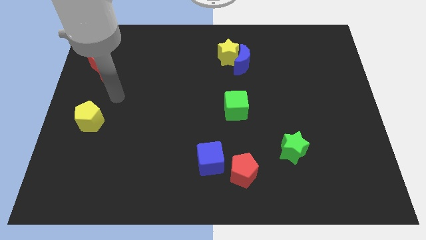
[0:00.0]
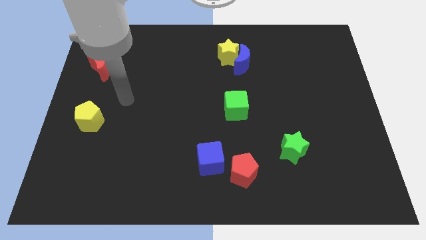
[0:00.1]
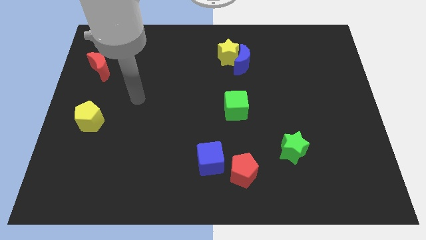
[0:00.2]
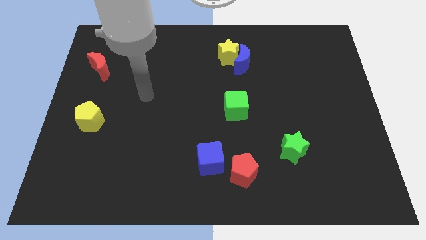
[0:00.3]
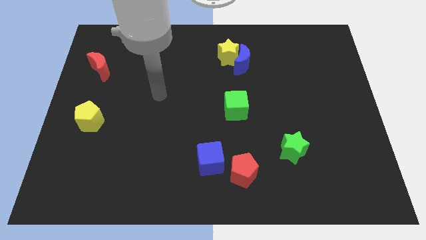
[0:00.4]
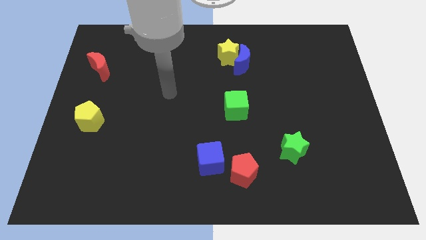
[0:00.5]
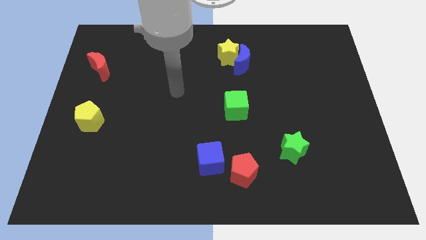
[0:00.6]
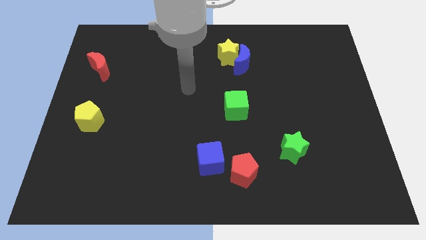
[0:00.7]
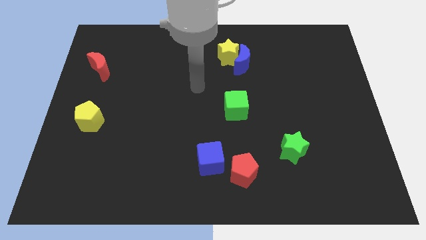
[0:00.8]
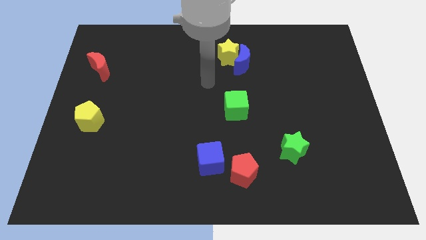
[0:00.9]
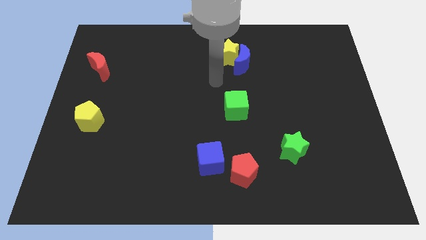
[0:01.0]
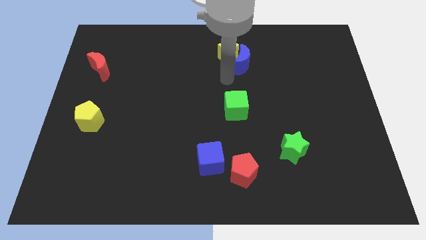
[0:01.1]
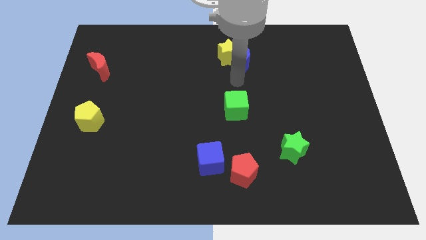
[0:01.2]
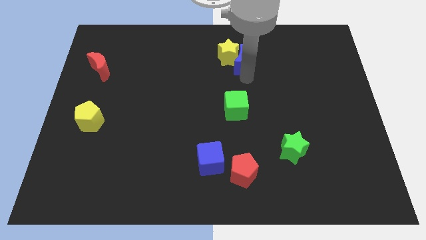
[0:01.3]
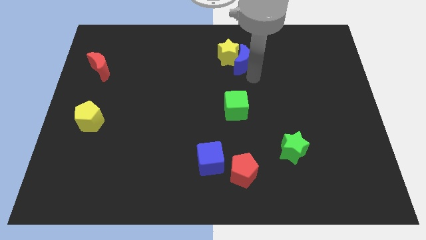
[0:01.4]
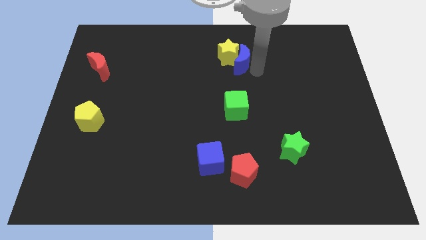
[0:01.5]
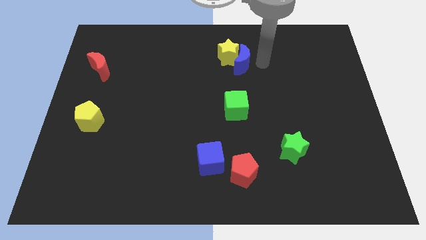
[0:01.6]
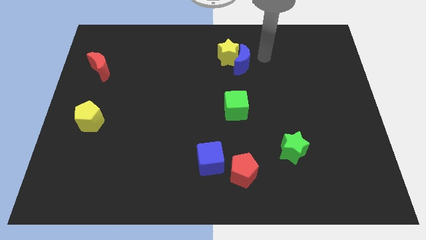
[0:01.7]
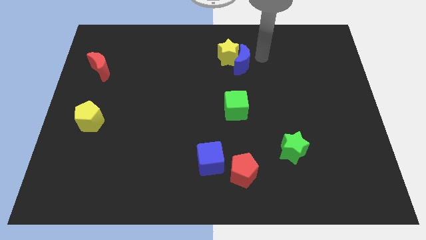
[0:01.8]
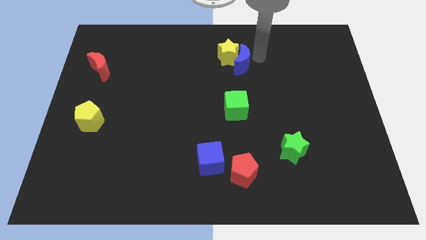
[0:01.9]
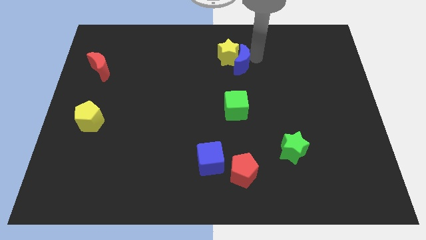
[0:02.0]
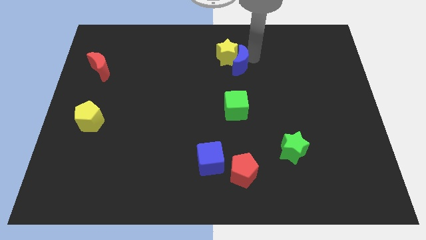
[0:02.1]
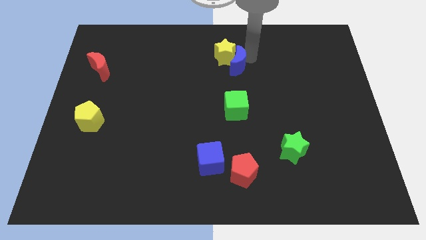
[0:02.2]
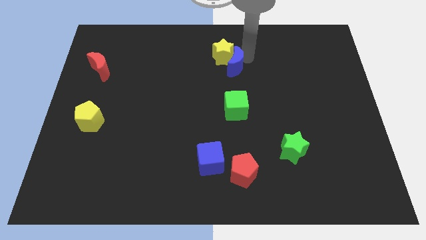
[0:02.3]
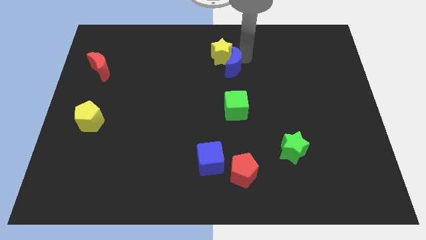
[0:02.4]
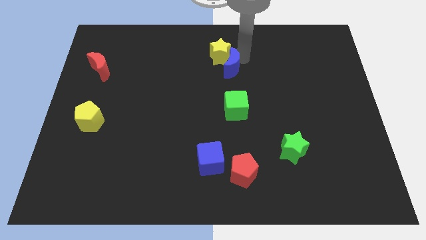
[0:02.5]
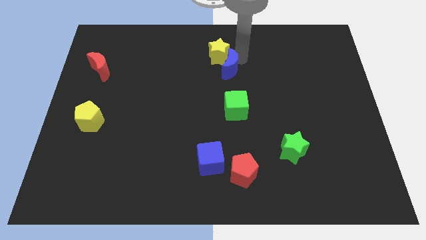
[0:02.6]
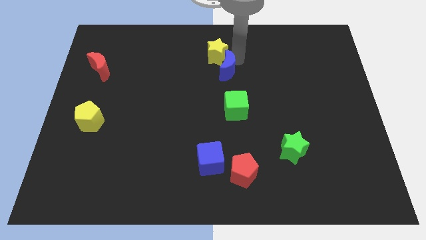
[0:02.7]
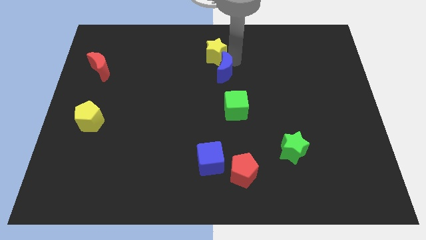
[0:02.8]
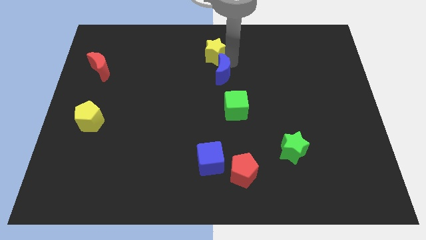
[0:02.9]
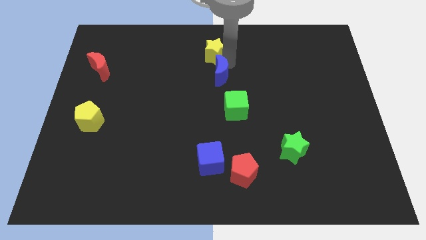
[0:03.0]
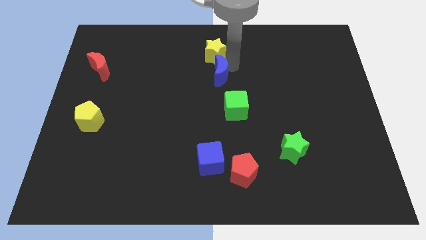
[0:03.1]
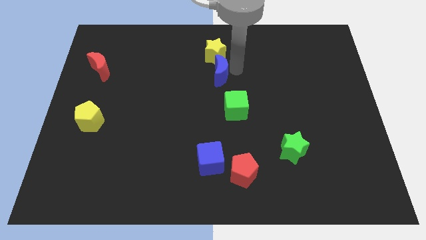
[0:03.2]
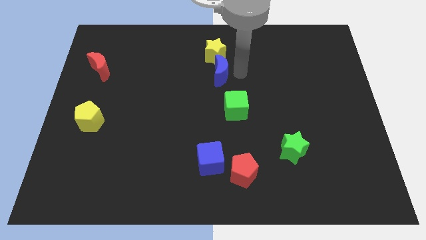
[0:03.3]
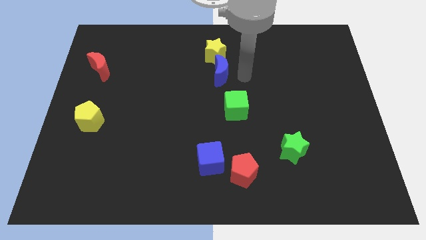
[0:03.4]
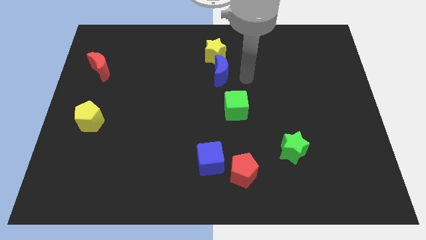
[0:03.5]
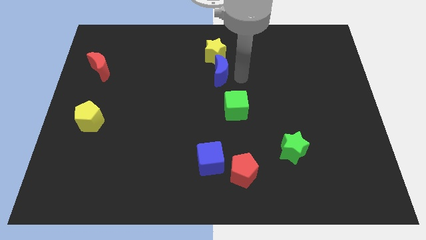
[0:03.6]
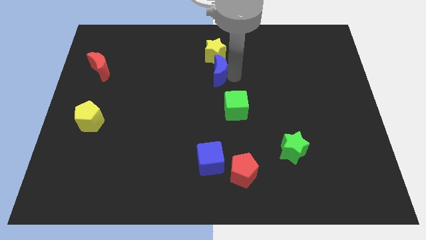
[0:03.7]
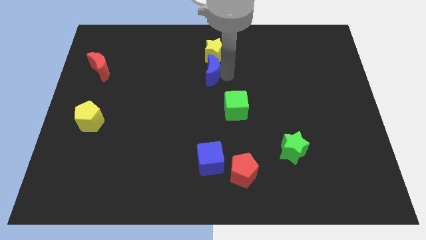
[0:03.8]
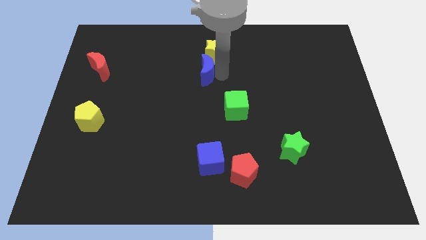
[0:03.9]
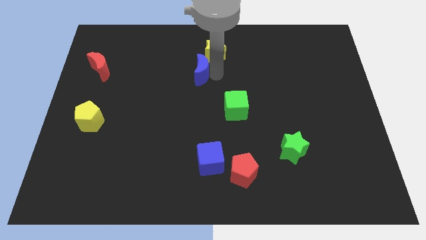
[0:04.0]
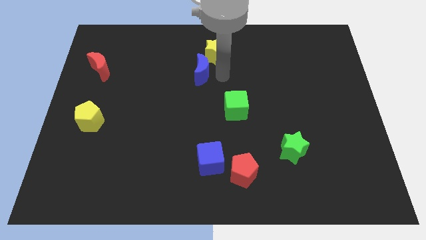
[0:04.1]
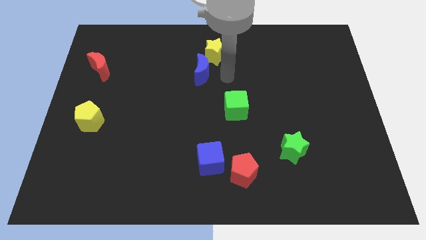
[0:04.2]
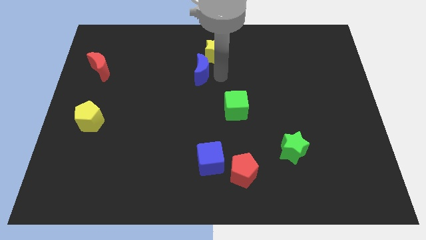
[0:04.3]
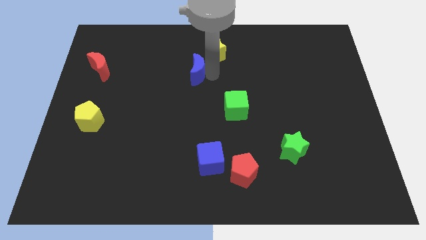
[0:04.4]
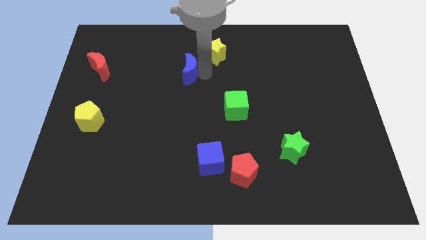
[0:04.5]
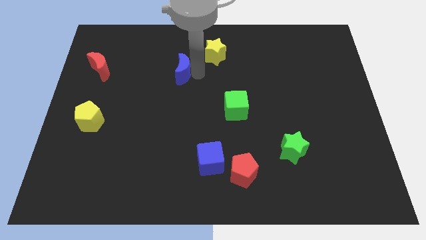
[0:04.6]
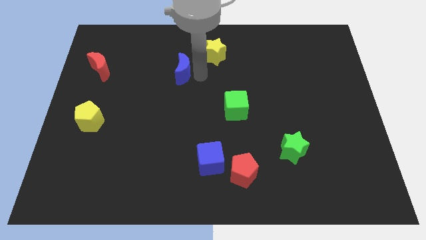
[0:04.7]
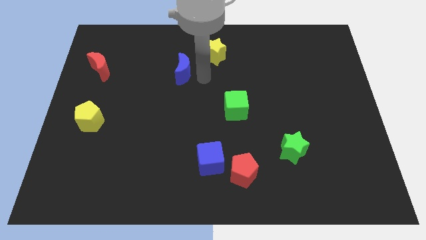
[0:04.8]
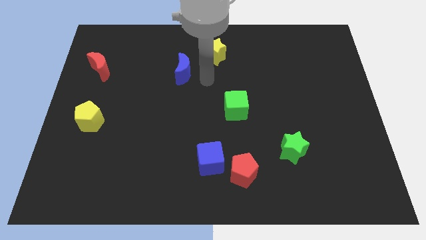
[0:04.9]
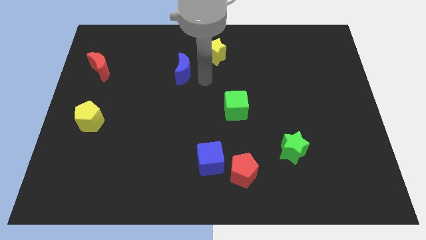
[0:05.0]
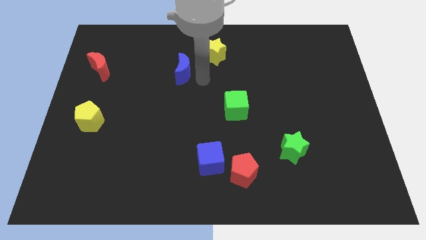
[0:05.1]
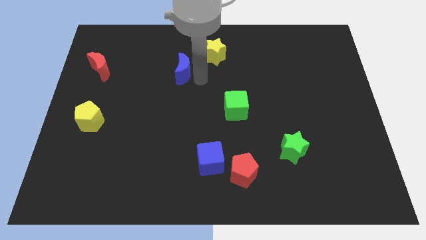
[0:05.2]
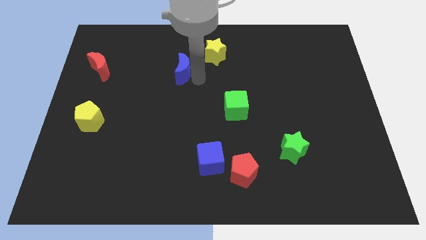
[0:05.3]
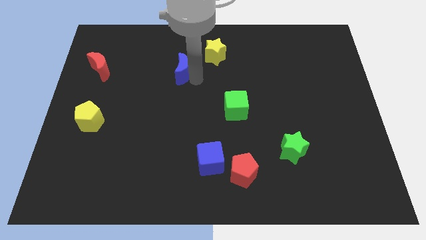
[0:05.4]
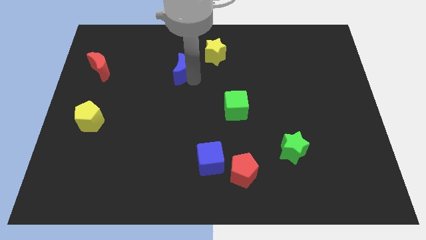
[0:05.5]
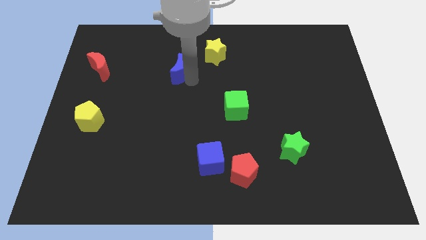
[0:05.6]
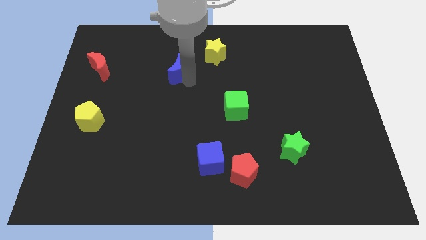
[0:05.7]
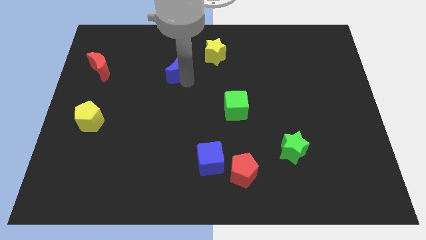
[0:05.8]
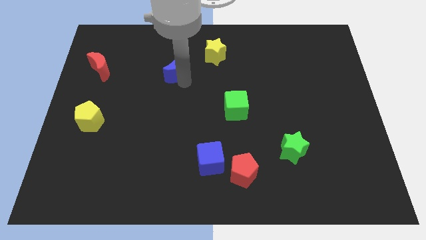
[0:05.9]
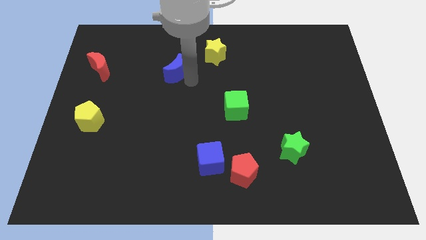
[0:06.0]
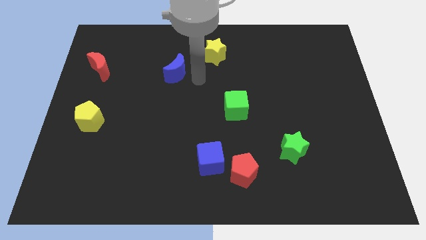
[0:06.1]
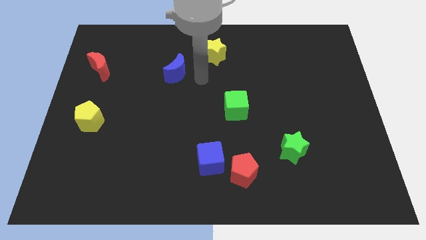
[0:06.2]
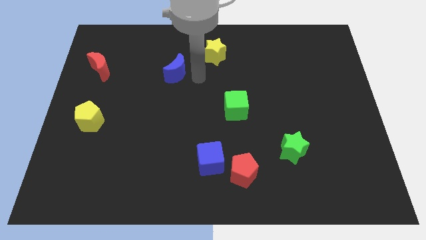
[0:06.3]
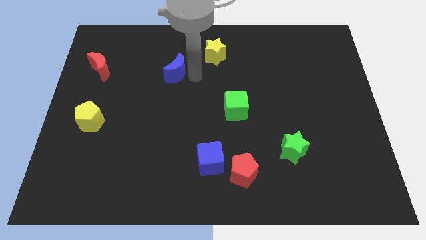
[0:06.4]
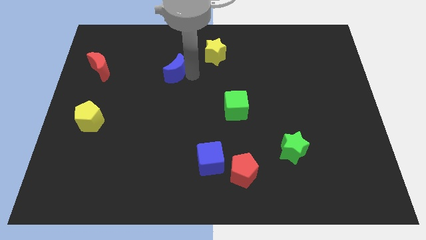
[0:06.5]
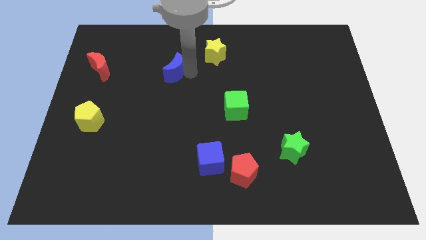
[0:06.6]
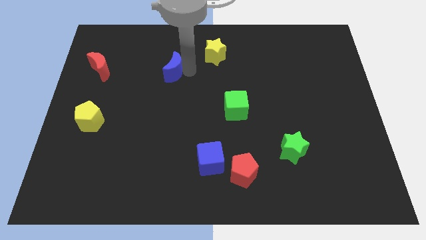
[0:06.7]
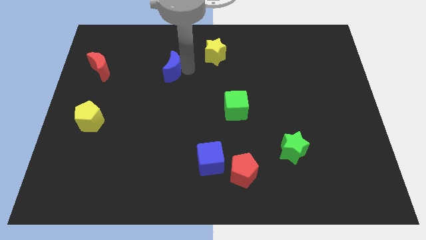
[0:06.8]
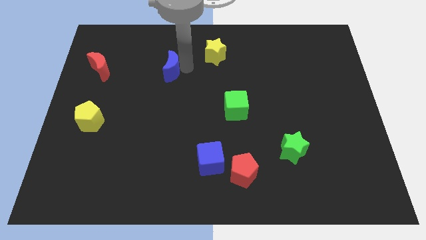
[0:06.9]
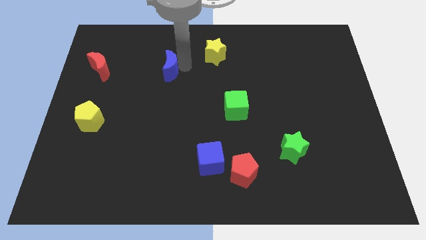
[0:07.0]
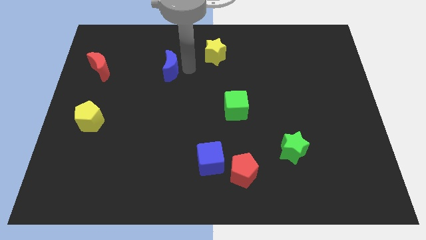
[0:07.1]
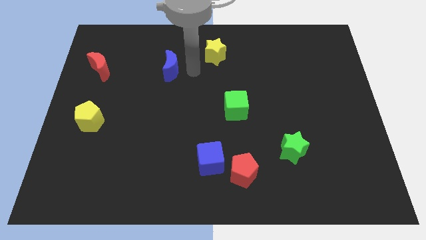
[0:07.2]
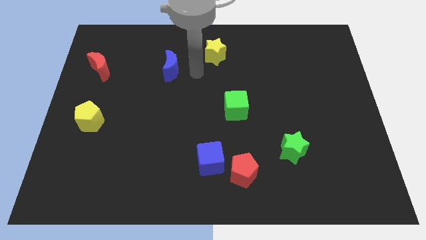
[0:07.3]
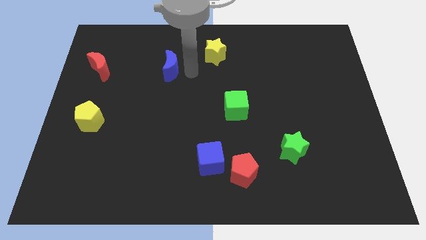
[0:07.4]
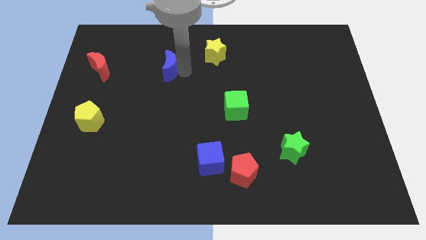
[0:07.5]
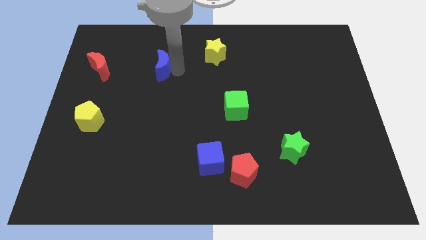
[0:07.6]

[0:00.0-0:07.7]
move the blue moon left

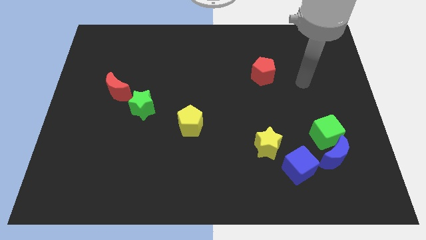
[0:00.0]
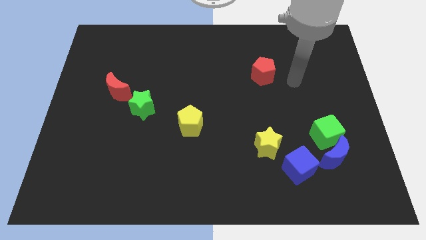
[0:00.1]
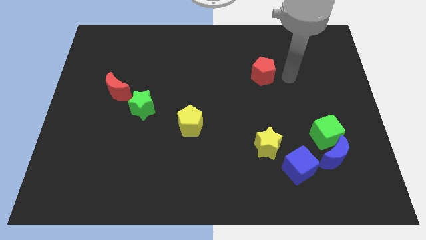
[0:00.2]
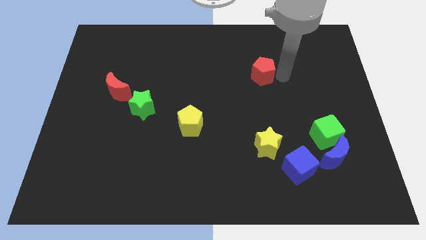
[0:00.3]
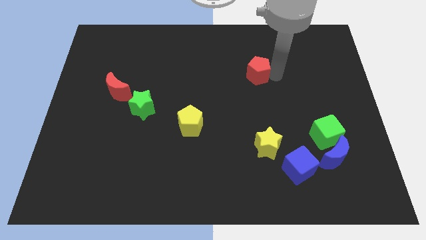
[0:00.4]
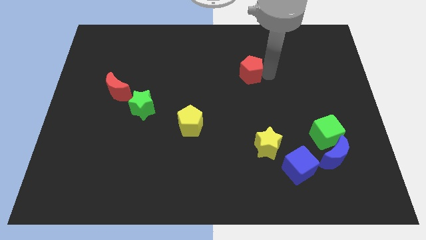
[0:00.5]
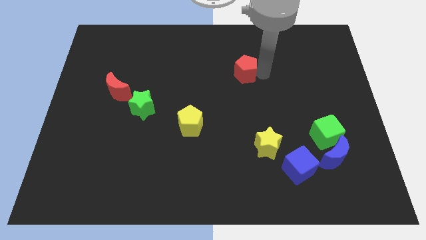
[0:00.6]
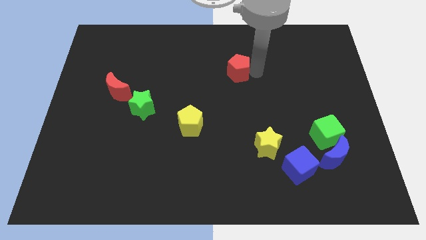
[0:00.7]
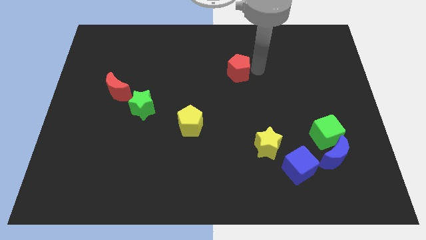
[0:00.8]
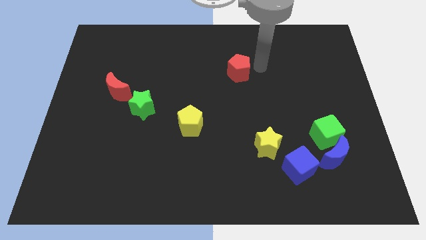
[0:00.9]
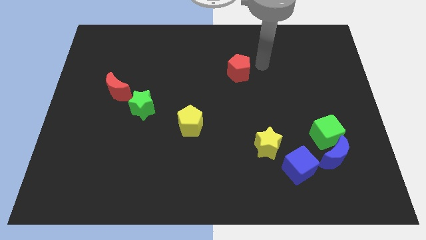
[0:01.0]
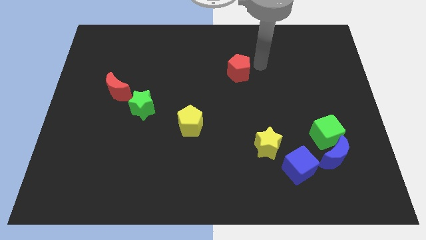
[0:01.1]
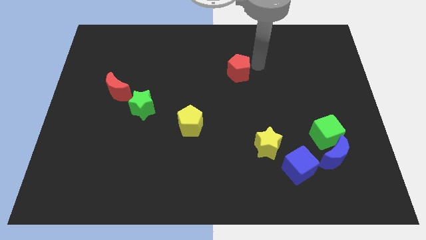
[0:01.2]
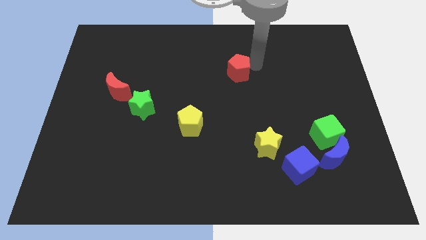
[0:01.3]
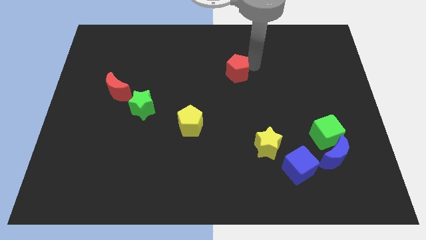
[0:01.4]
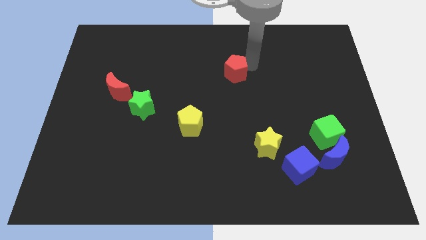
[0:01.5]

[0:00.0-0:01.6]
slightly push the red pentagon left
